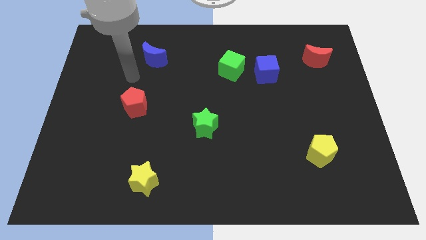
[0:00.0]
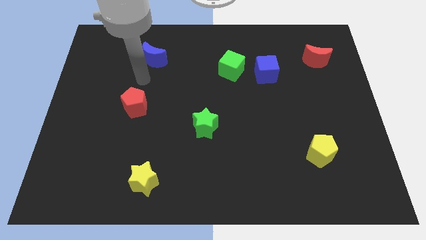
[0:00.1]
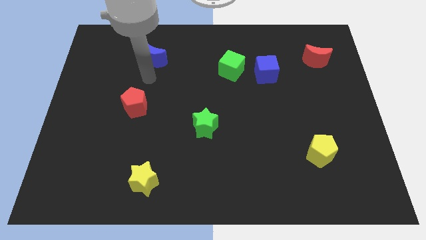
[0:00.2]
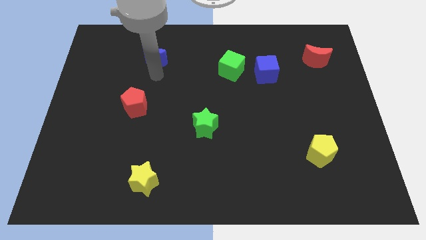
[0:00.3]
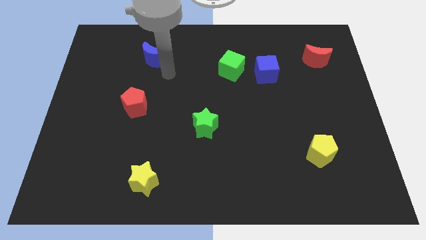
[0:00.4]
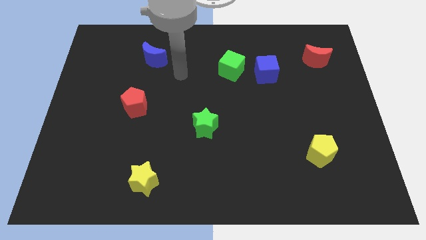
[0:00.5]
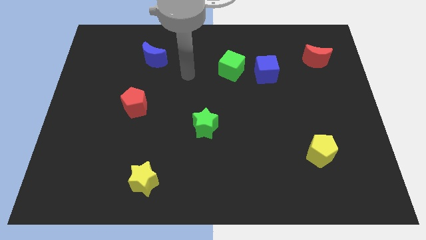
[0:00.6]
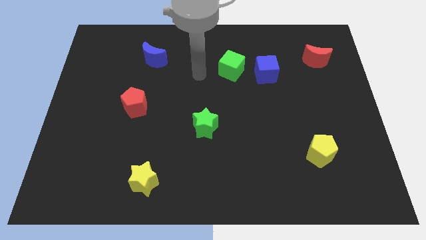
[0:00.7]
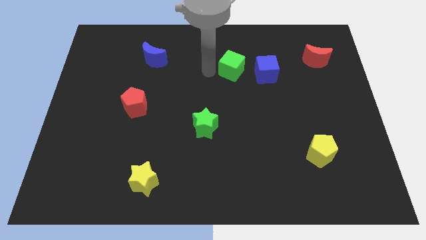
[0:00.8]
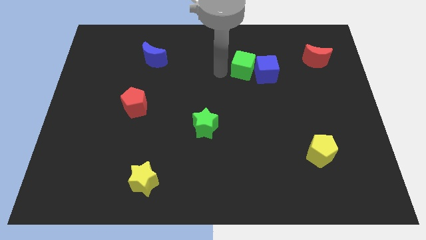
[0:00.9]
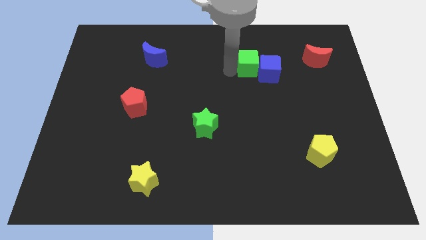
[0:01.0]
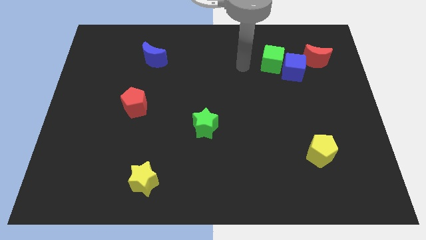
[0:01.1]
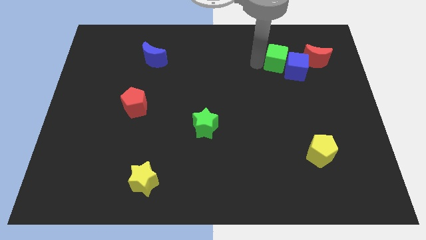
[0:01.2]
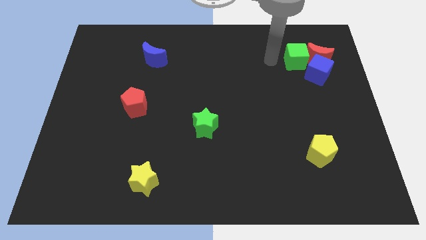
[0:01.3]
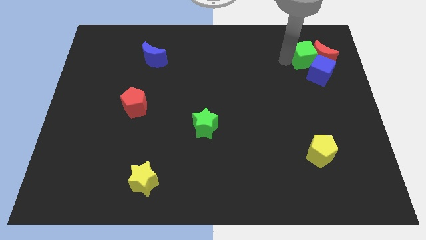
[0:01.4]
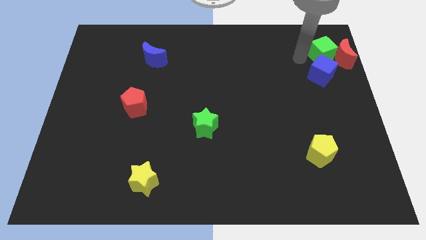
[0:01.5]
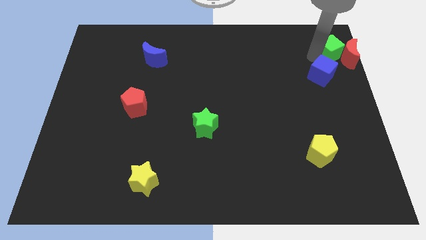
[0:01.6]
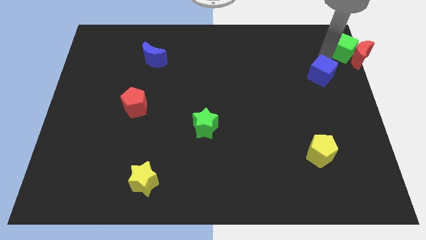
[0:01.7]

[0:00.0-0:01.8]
move the blue cube away from the green cube

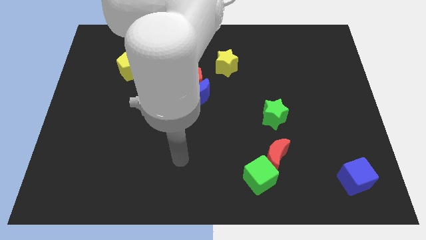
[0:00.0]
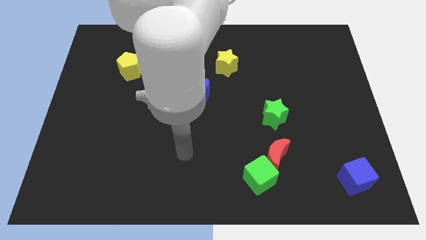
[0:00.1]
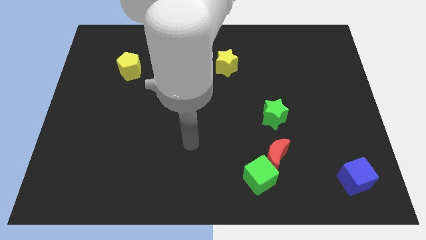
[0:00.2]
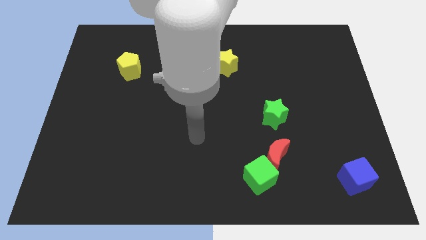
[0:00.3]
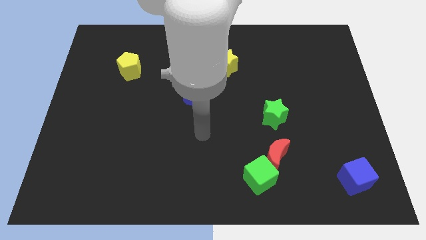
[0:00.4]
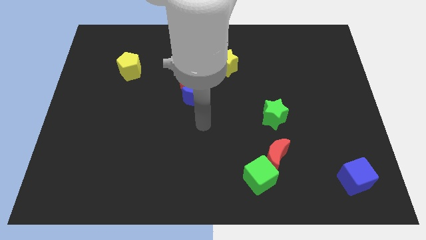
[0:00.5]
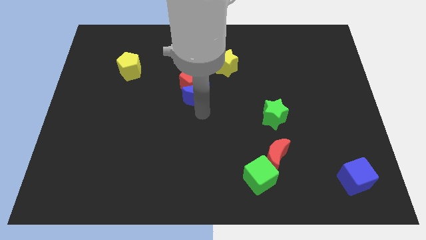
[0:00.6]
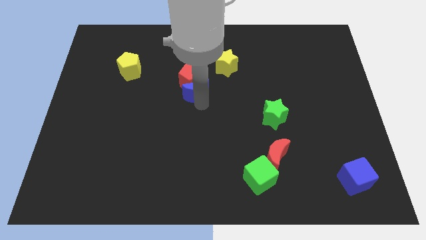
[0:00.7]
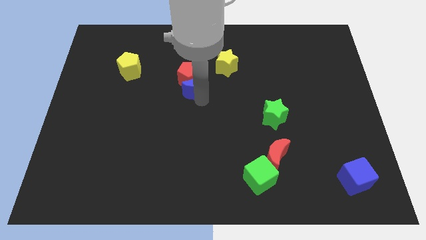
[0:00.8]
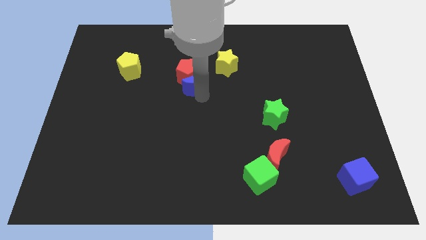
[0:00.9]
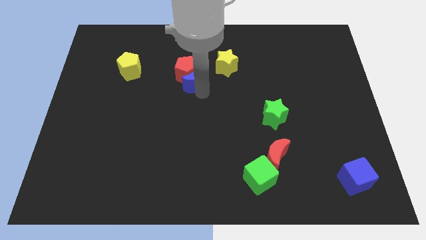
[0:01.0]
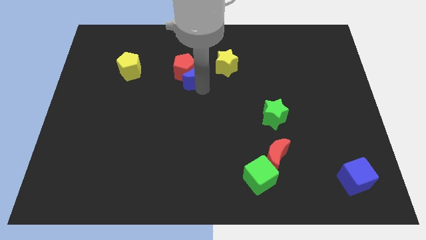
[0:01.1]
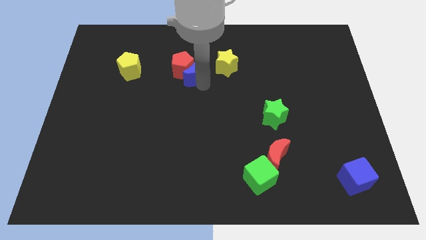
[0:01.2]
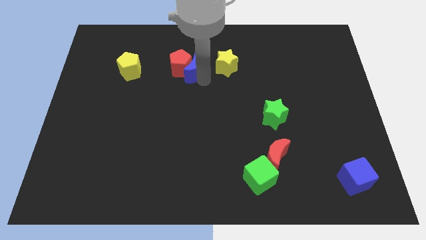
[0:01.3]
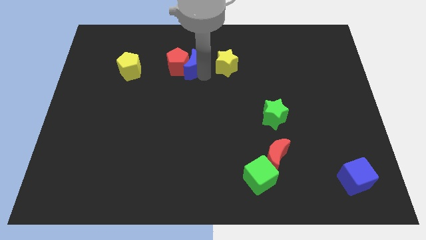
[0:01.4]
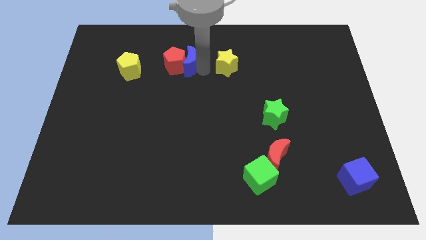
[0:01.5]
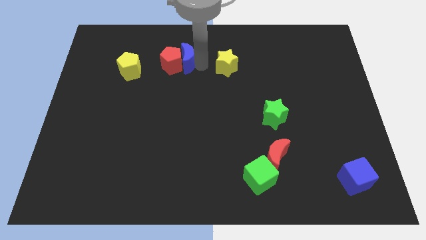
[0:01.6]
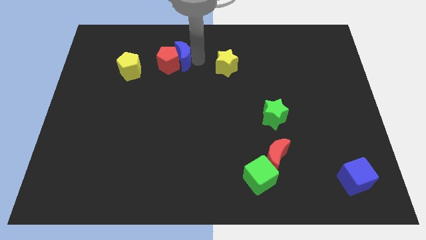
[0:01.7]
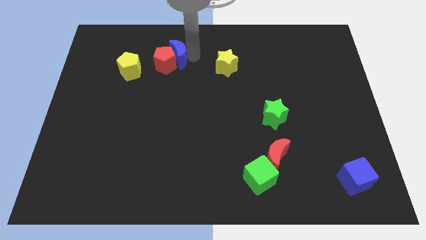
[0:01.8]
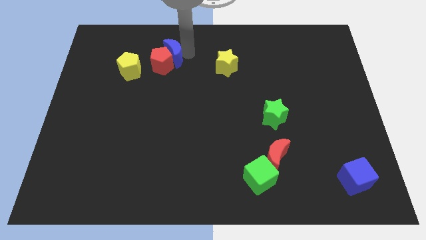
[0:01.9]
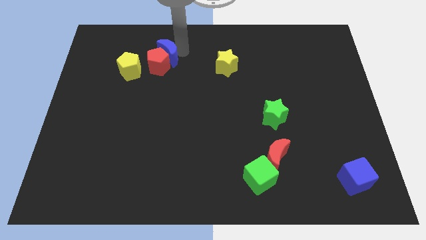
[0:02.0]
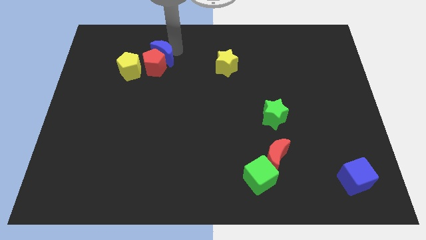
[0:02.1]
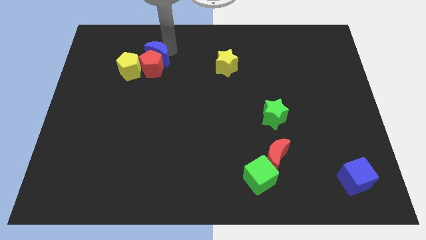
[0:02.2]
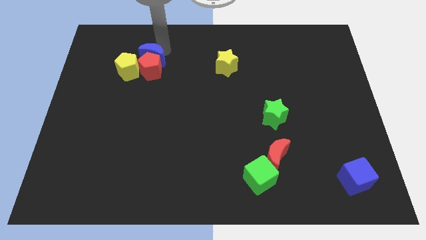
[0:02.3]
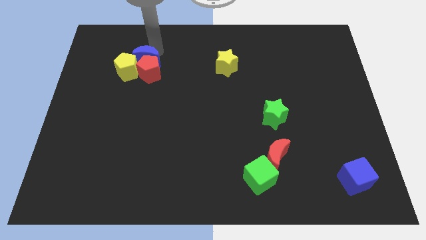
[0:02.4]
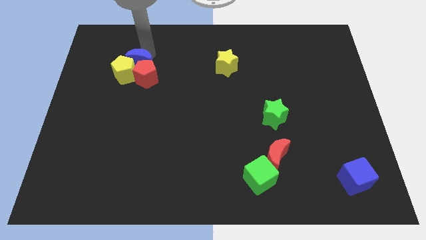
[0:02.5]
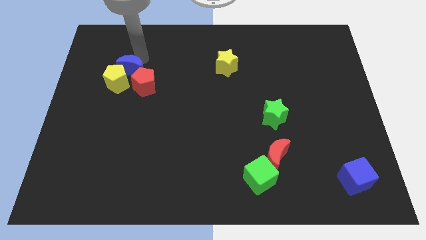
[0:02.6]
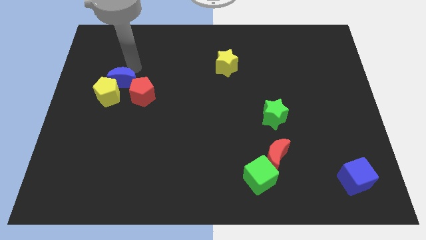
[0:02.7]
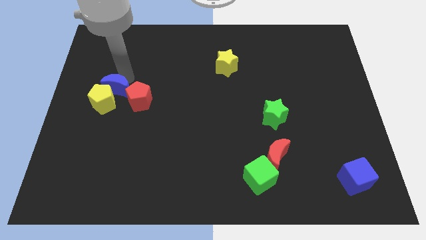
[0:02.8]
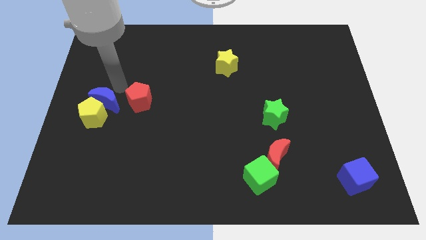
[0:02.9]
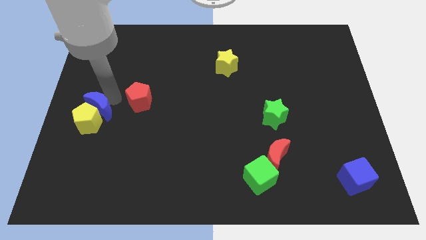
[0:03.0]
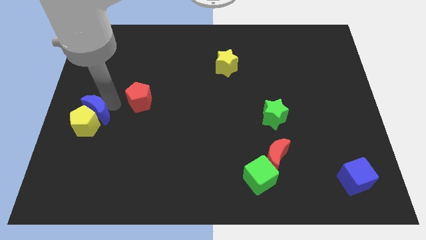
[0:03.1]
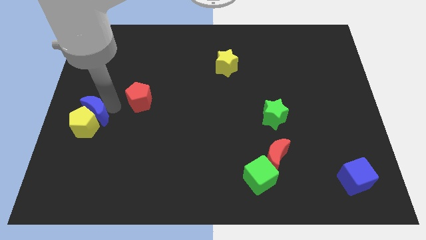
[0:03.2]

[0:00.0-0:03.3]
separate the red pentagon from the blue moon

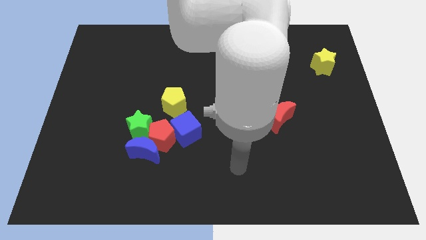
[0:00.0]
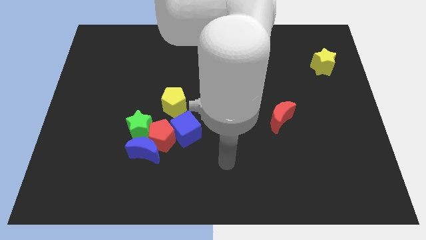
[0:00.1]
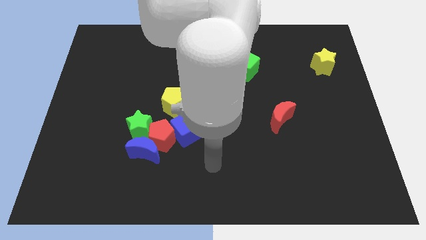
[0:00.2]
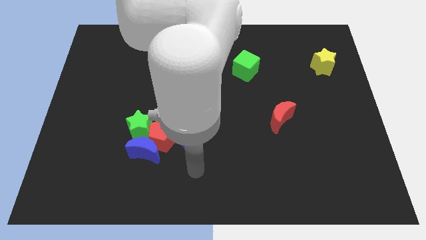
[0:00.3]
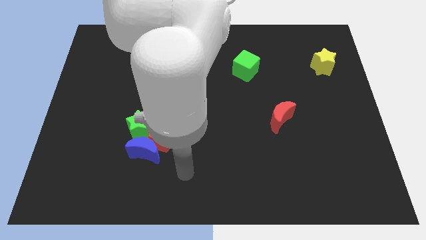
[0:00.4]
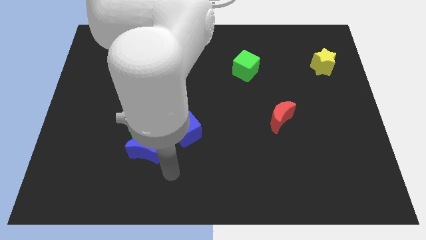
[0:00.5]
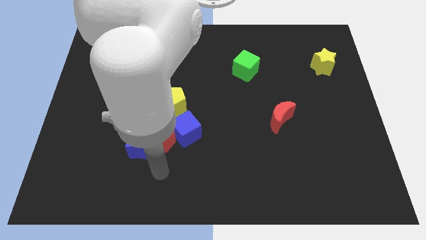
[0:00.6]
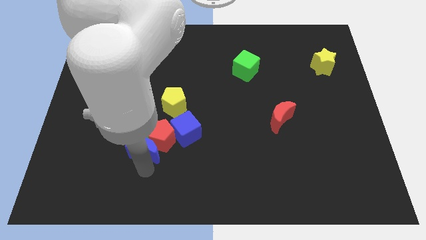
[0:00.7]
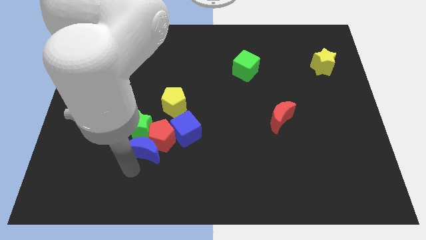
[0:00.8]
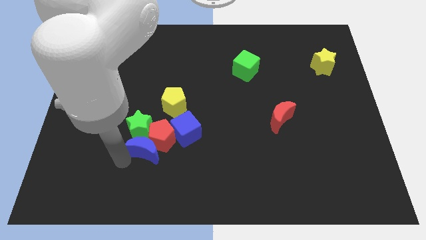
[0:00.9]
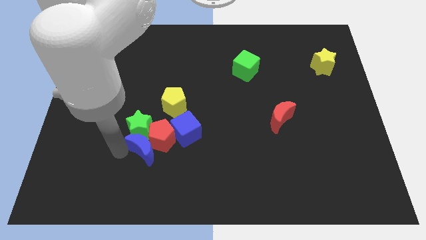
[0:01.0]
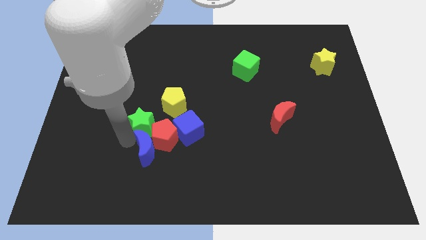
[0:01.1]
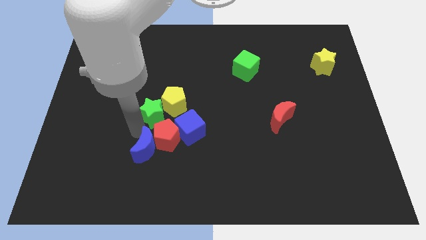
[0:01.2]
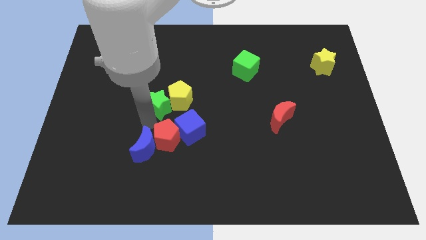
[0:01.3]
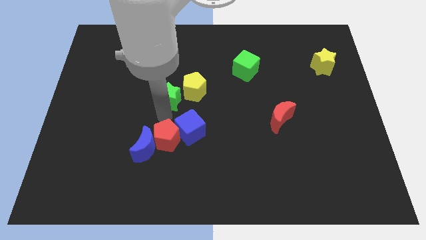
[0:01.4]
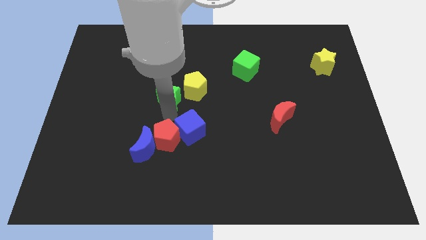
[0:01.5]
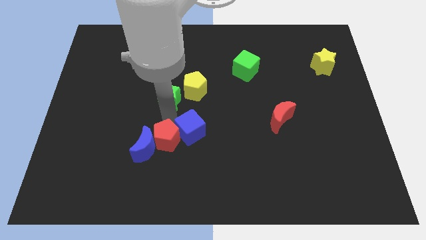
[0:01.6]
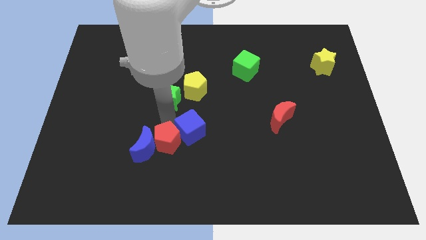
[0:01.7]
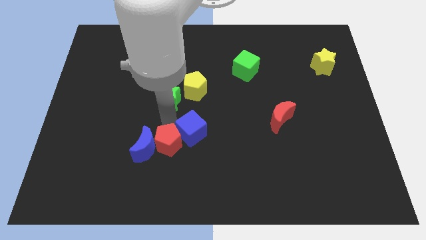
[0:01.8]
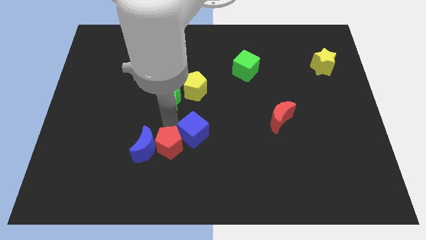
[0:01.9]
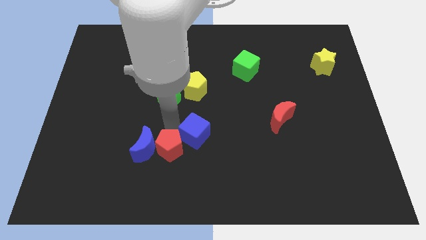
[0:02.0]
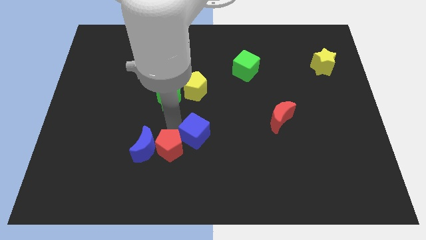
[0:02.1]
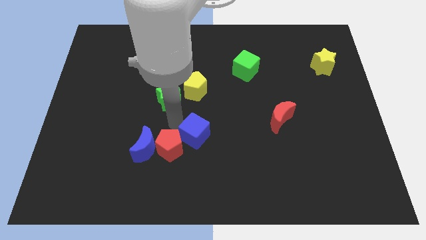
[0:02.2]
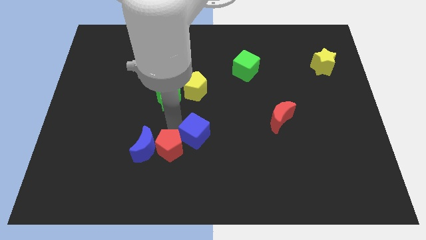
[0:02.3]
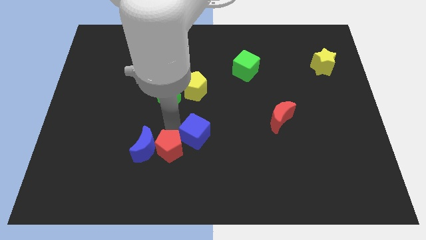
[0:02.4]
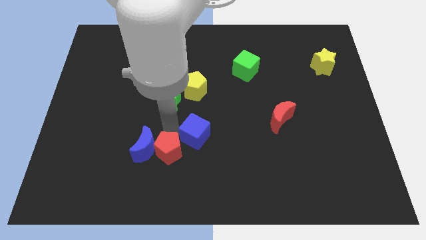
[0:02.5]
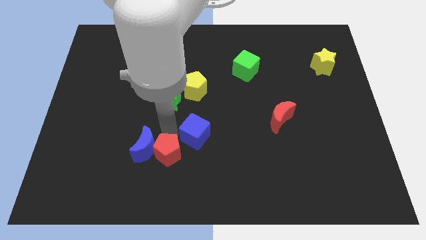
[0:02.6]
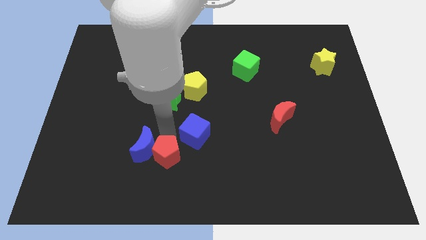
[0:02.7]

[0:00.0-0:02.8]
move the red pentagon away from the group

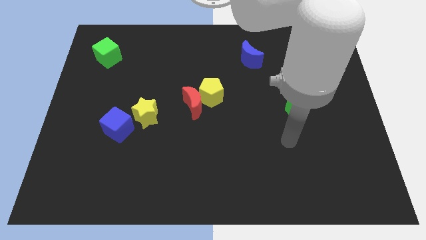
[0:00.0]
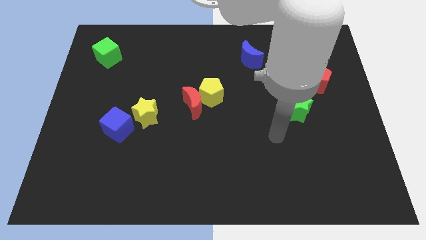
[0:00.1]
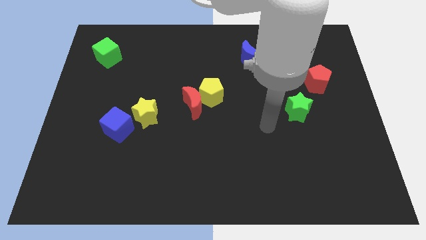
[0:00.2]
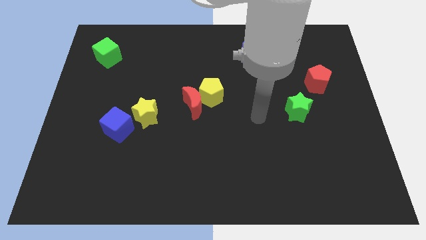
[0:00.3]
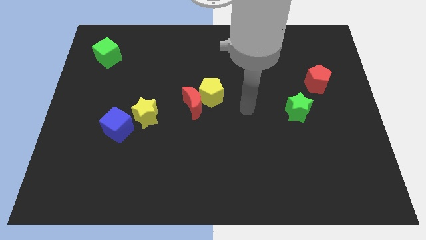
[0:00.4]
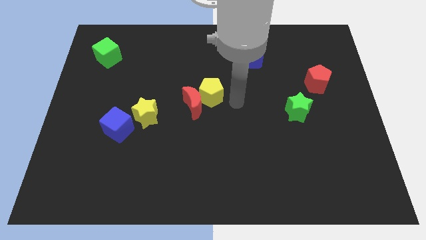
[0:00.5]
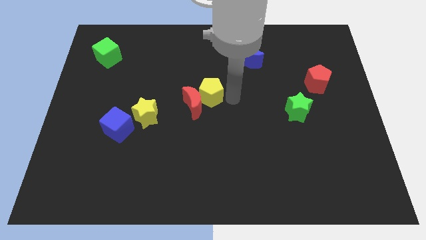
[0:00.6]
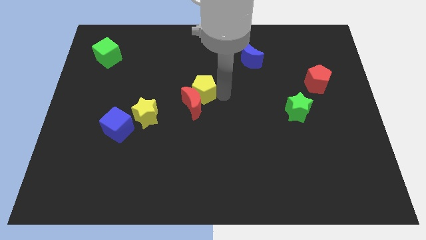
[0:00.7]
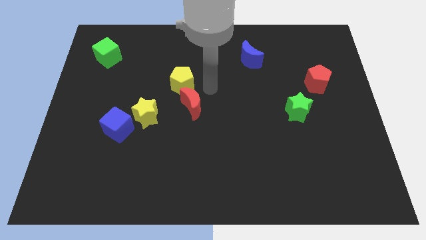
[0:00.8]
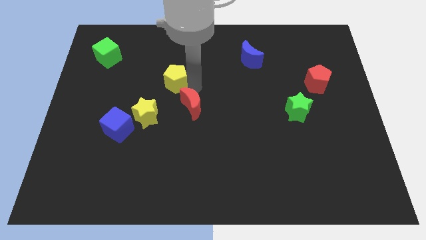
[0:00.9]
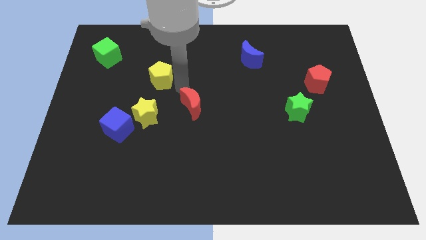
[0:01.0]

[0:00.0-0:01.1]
separate the red moon from the yellow pentagon

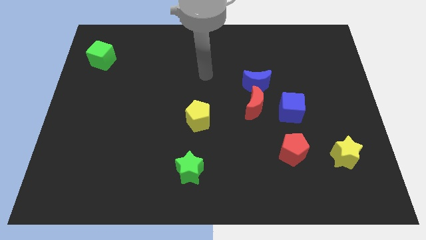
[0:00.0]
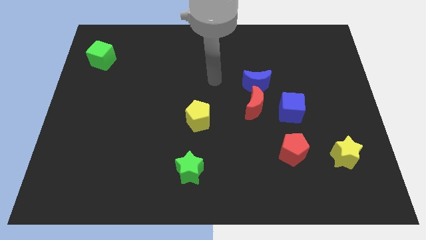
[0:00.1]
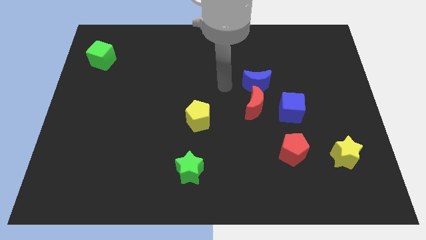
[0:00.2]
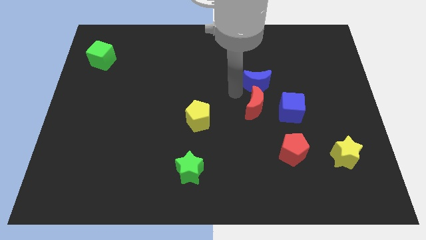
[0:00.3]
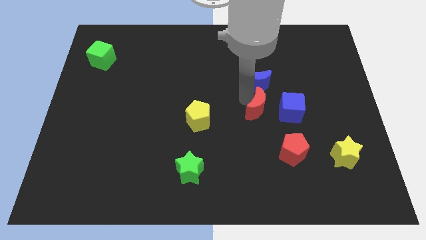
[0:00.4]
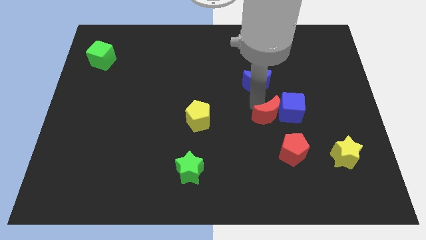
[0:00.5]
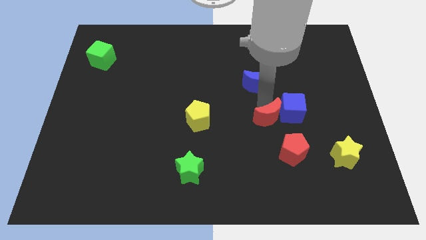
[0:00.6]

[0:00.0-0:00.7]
pull the blue moon apart from the red moon
